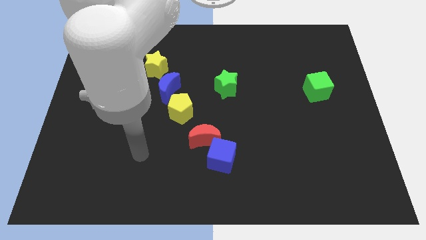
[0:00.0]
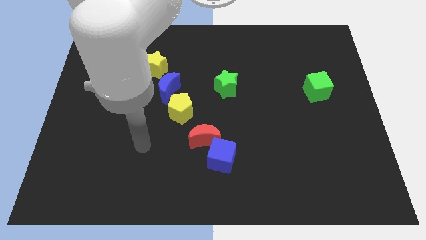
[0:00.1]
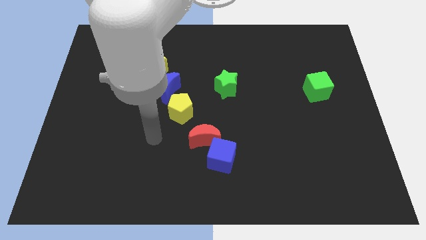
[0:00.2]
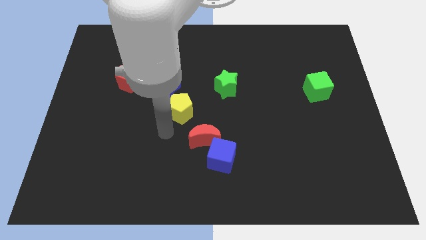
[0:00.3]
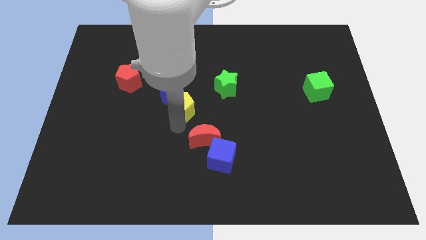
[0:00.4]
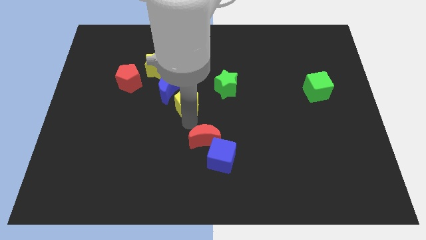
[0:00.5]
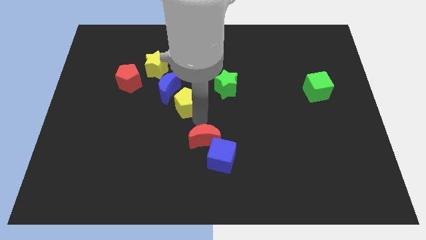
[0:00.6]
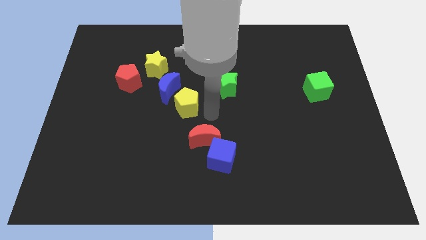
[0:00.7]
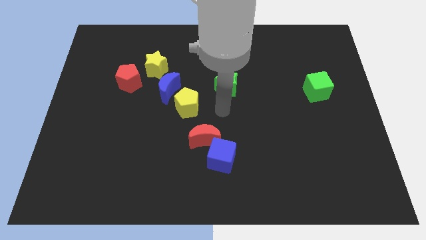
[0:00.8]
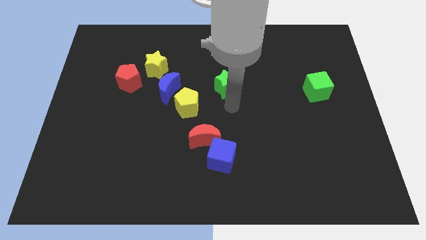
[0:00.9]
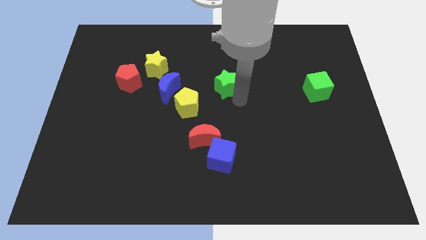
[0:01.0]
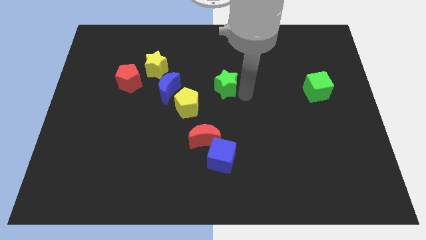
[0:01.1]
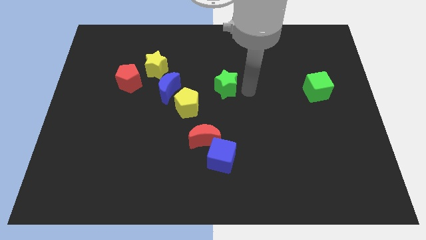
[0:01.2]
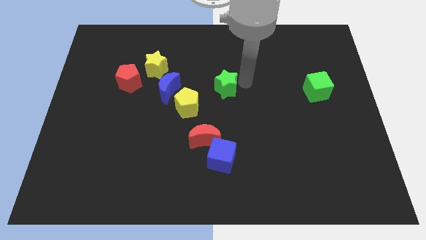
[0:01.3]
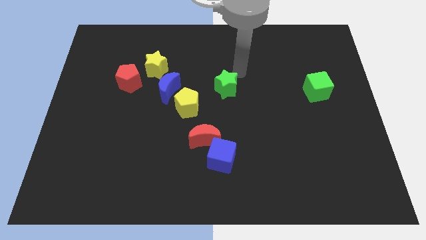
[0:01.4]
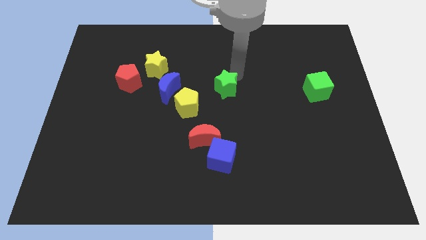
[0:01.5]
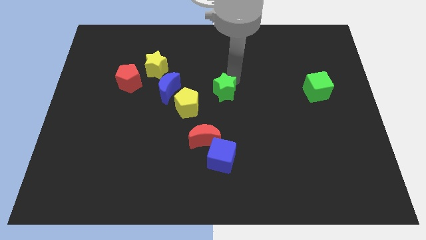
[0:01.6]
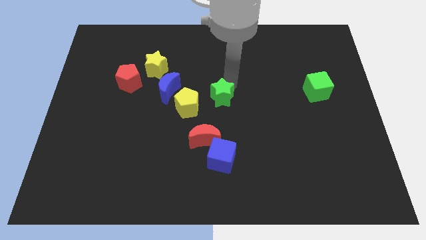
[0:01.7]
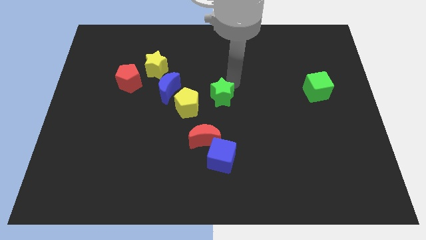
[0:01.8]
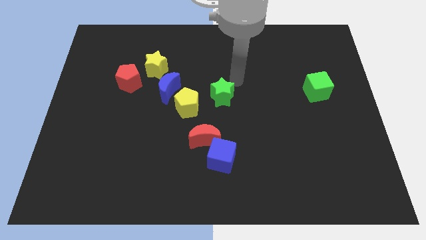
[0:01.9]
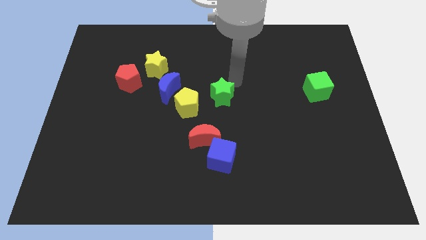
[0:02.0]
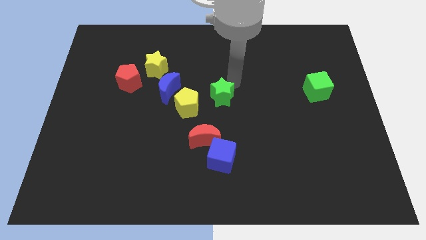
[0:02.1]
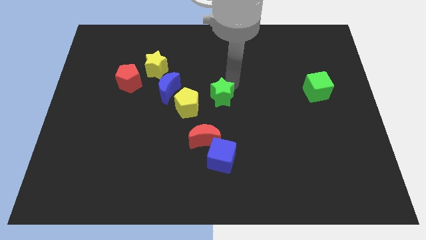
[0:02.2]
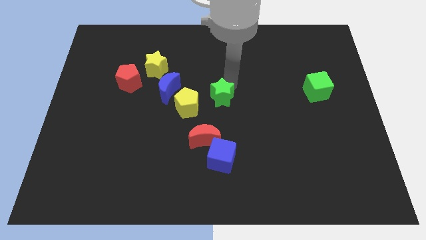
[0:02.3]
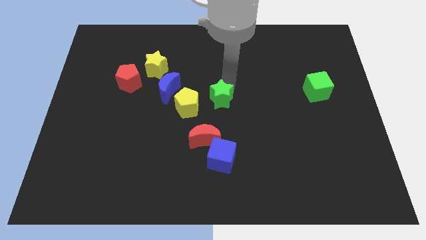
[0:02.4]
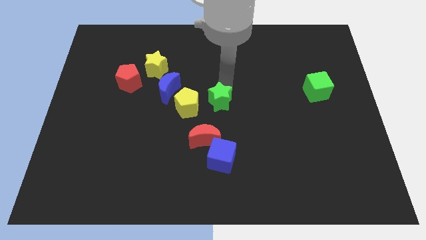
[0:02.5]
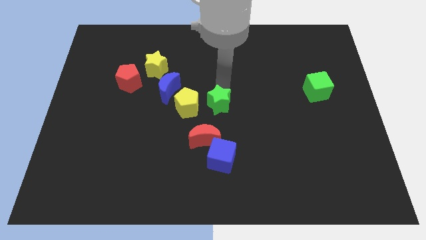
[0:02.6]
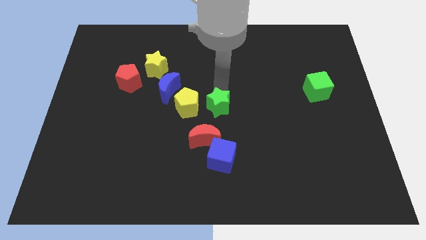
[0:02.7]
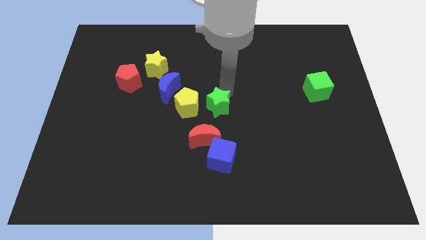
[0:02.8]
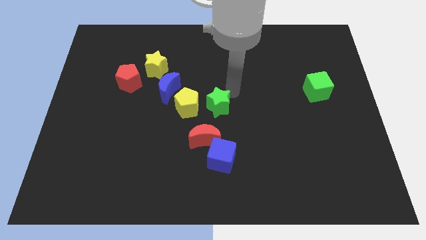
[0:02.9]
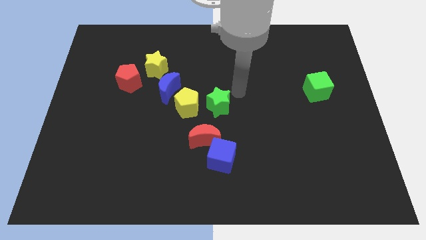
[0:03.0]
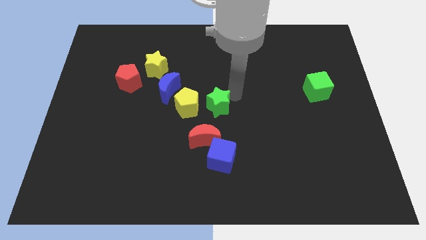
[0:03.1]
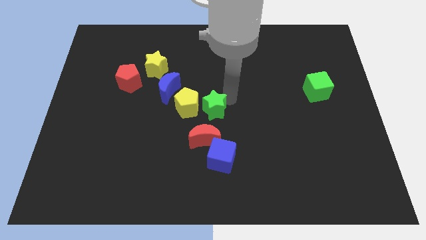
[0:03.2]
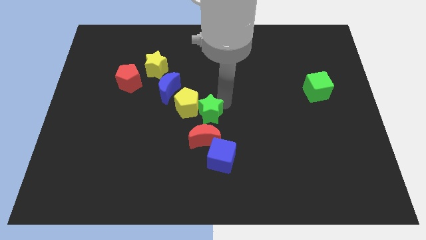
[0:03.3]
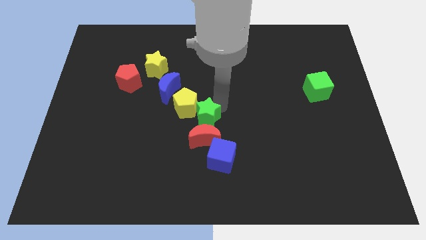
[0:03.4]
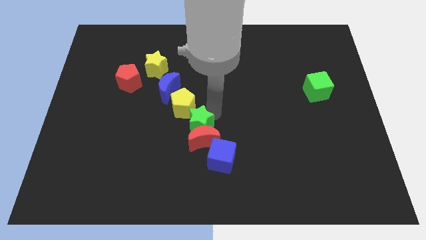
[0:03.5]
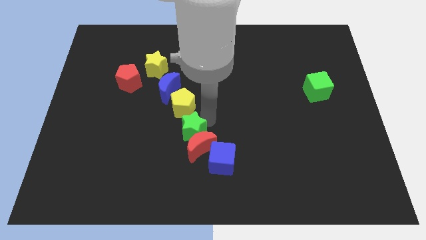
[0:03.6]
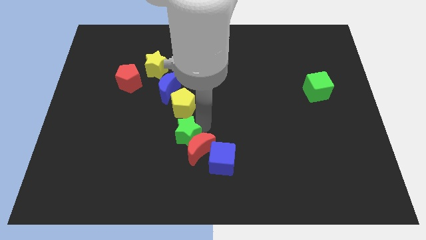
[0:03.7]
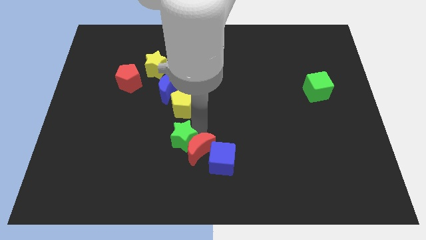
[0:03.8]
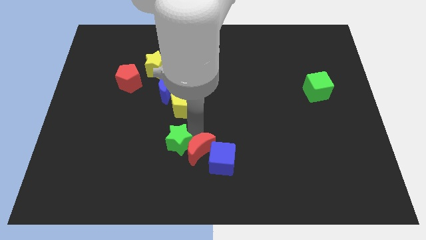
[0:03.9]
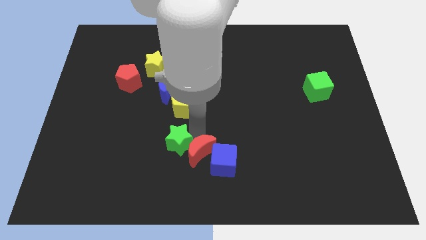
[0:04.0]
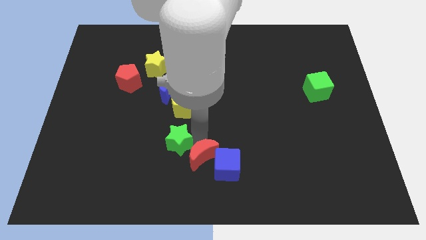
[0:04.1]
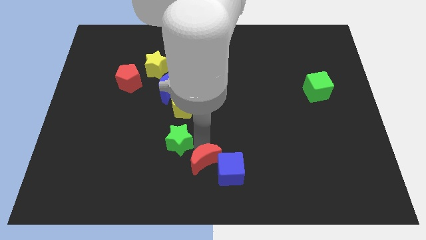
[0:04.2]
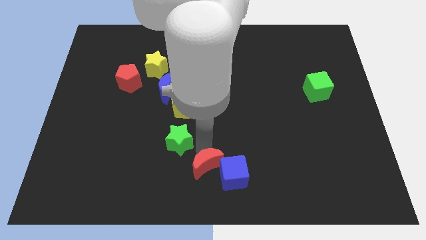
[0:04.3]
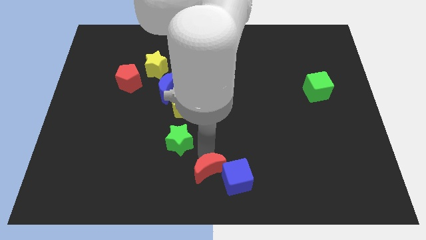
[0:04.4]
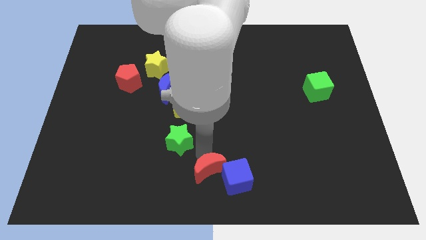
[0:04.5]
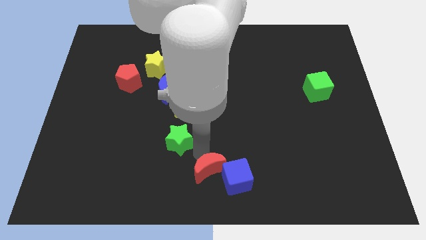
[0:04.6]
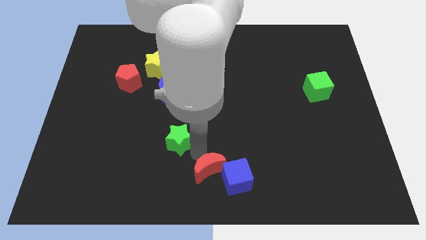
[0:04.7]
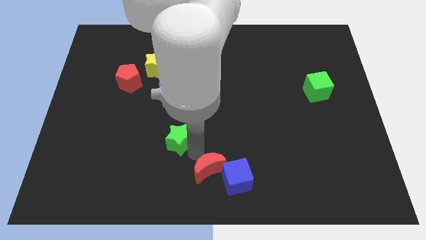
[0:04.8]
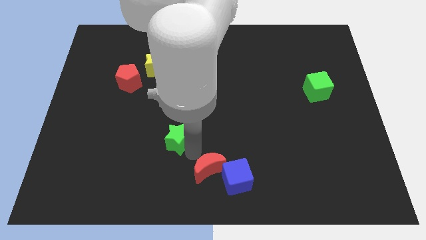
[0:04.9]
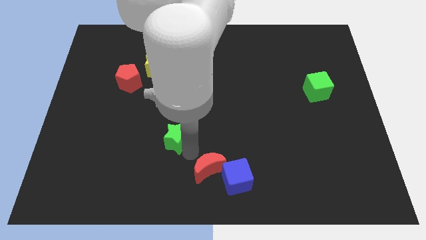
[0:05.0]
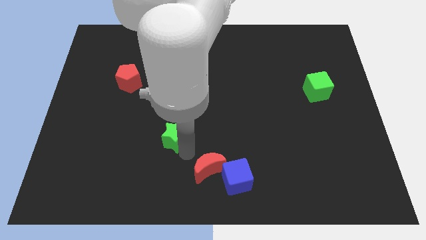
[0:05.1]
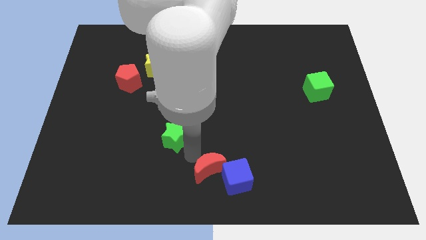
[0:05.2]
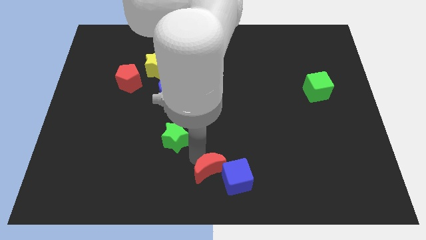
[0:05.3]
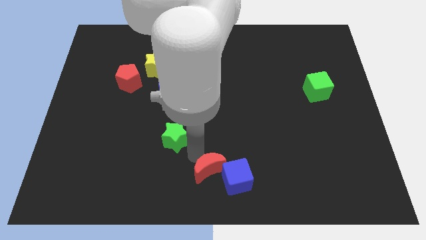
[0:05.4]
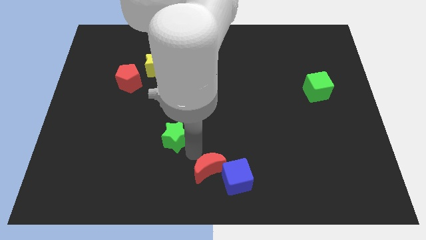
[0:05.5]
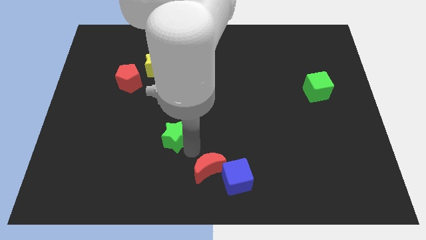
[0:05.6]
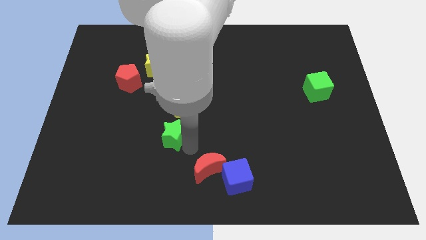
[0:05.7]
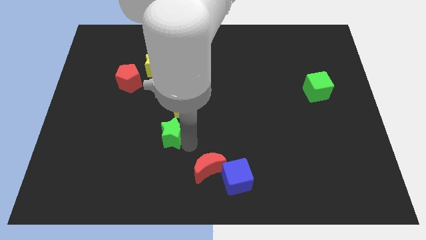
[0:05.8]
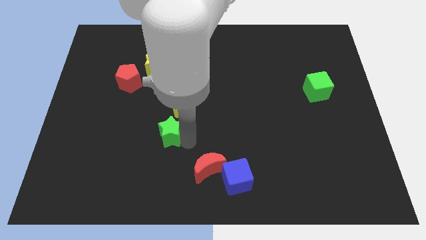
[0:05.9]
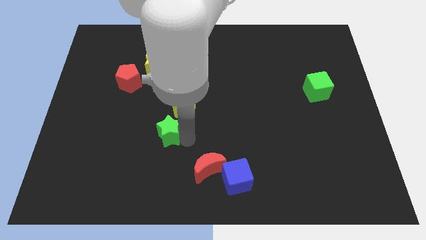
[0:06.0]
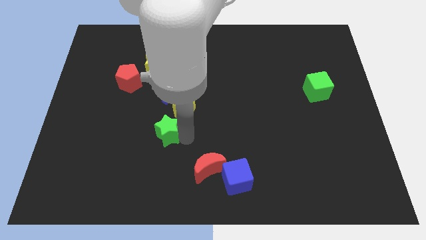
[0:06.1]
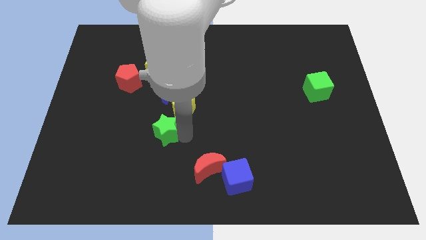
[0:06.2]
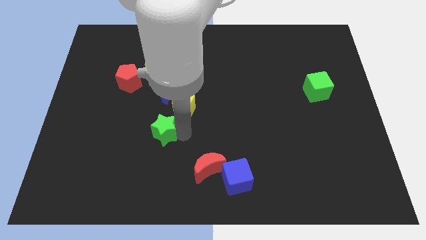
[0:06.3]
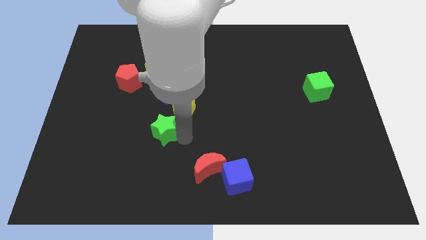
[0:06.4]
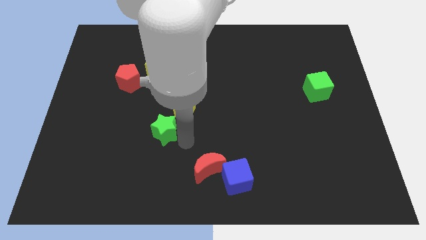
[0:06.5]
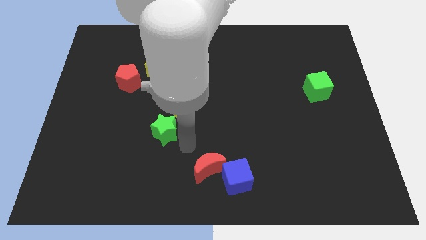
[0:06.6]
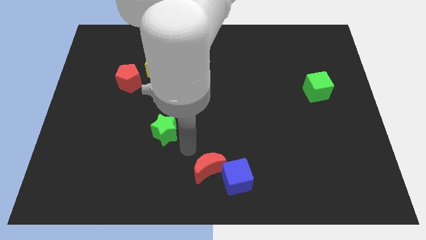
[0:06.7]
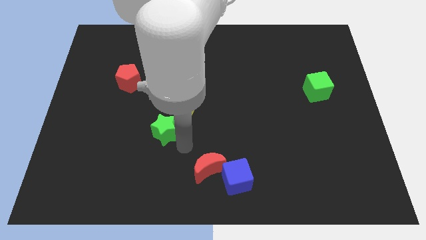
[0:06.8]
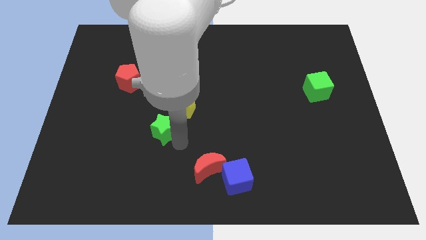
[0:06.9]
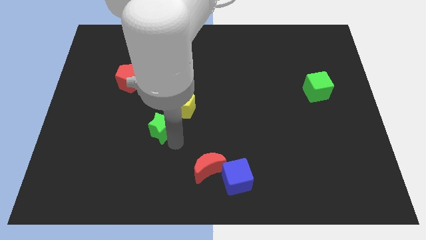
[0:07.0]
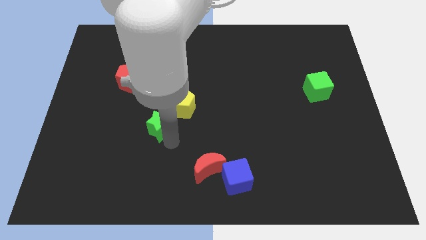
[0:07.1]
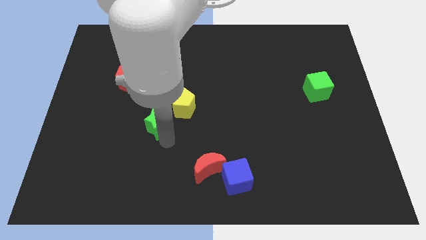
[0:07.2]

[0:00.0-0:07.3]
slide the green star a little bit to the left

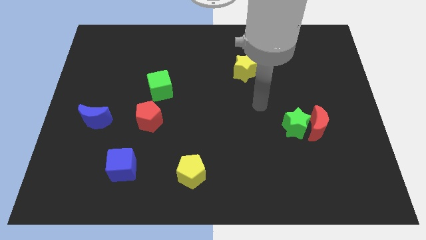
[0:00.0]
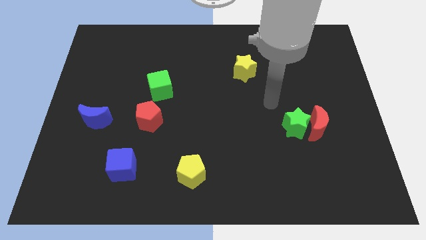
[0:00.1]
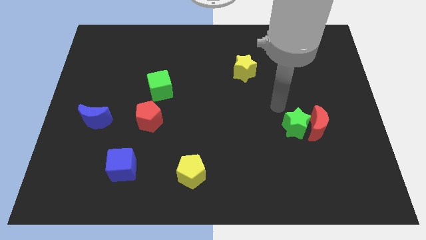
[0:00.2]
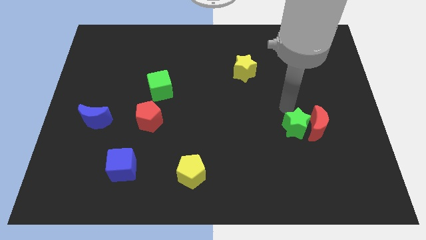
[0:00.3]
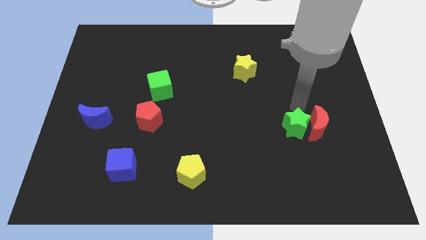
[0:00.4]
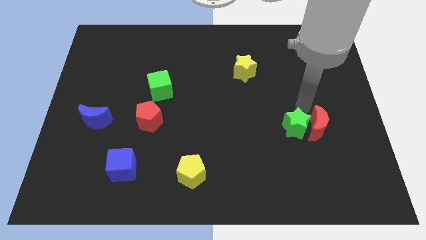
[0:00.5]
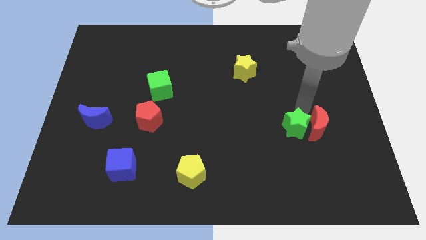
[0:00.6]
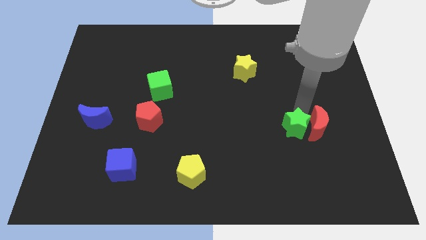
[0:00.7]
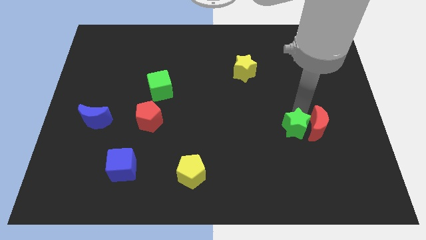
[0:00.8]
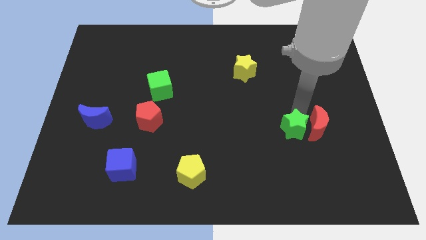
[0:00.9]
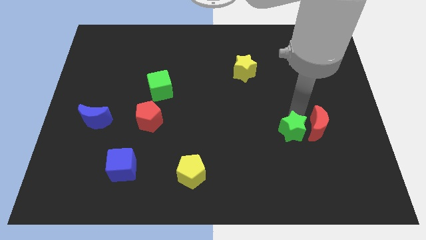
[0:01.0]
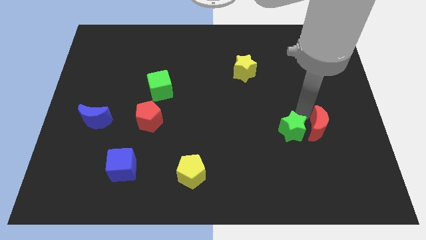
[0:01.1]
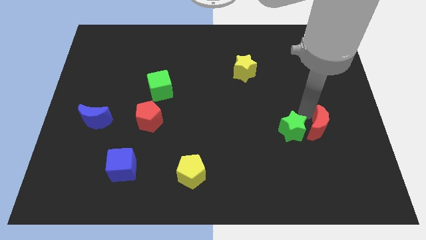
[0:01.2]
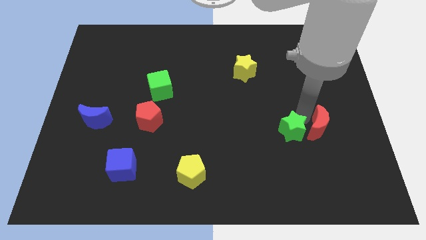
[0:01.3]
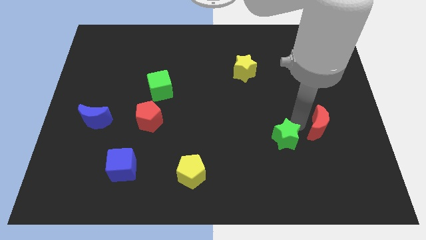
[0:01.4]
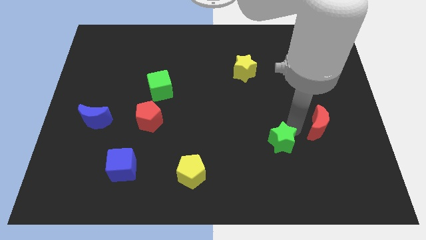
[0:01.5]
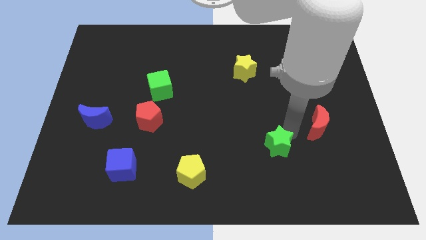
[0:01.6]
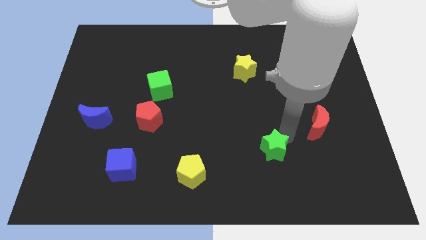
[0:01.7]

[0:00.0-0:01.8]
move the green star down and then left slightly
